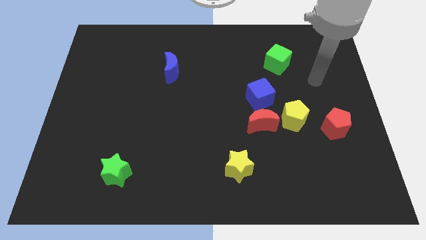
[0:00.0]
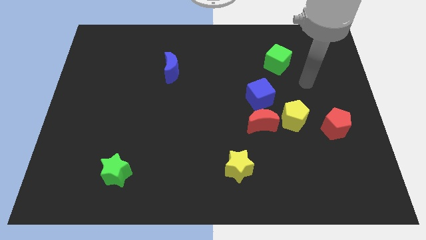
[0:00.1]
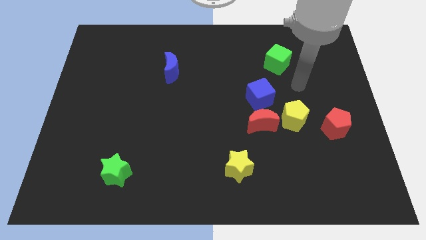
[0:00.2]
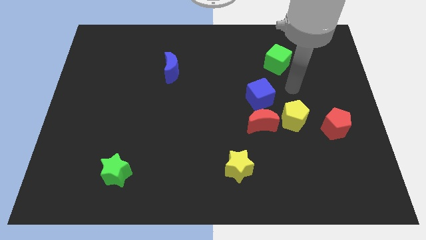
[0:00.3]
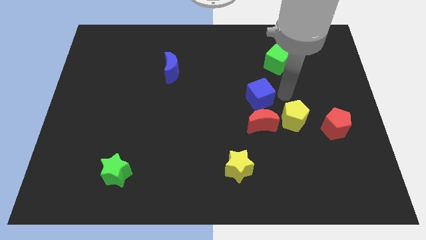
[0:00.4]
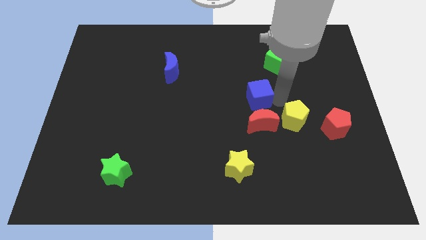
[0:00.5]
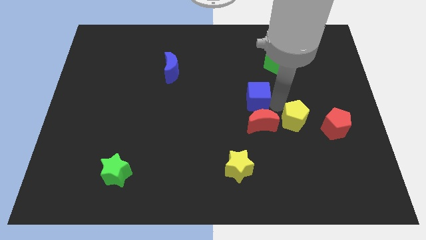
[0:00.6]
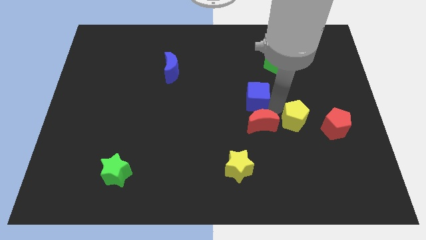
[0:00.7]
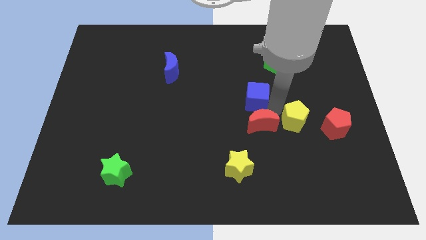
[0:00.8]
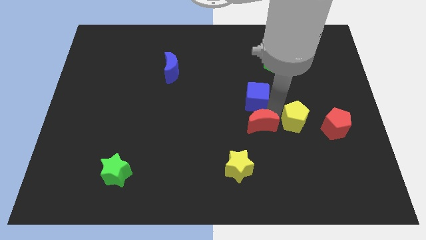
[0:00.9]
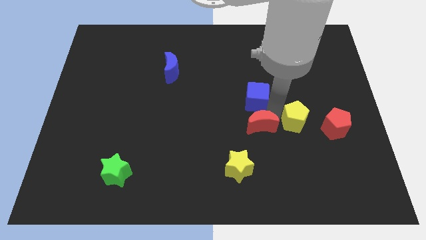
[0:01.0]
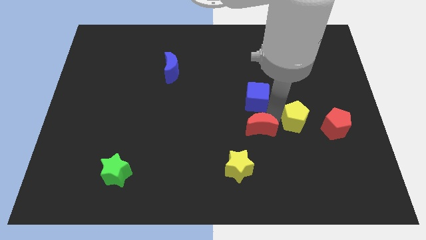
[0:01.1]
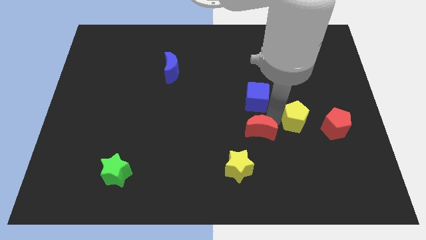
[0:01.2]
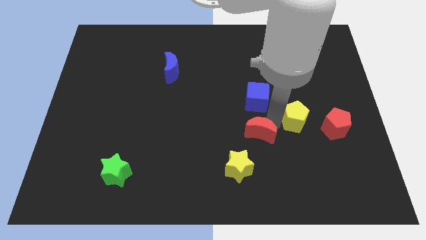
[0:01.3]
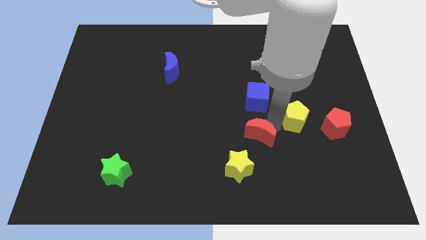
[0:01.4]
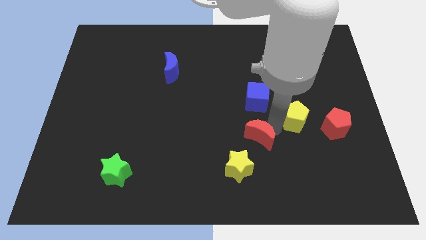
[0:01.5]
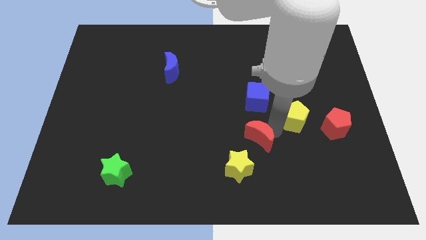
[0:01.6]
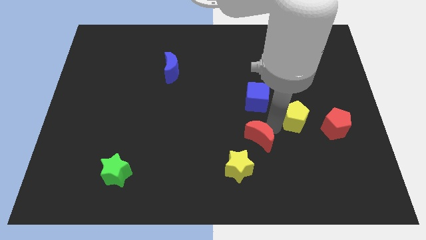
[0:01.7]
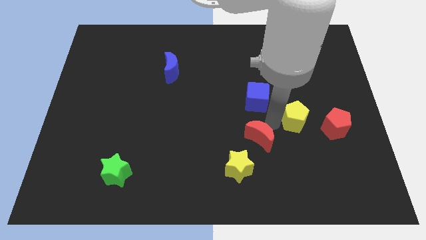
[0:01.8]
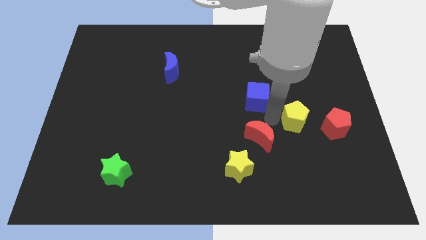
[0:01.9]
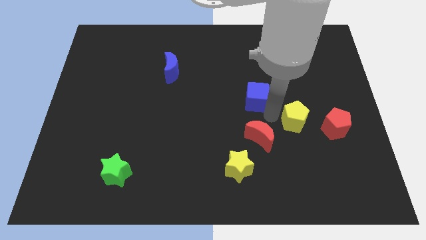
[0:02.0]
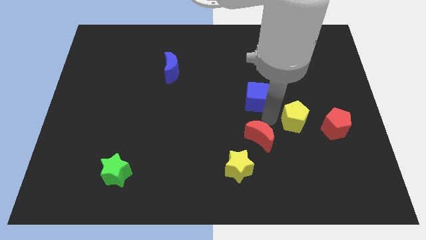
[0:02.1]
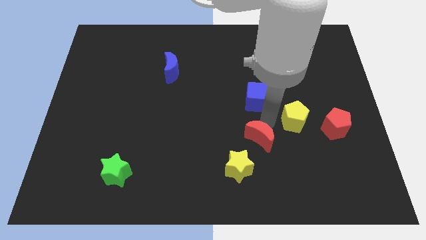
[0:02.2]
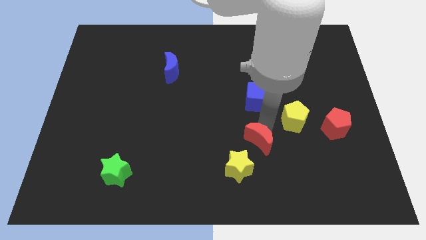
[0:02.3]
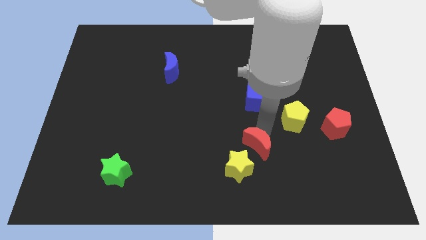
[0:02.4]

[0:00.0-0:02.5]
move the red moon away from the yellow pentagon and blue cube

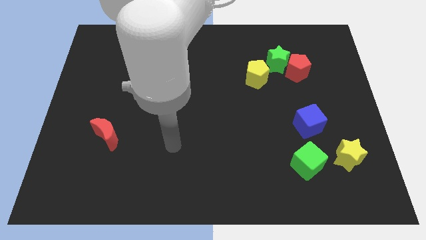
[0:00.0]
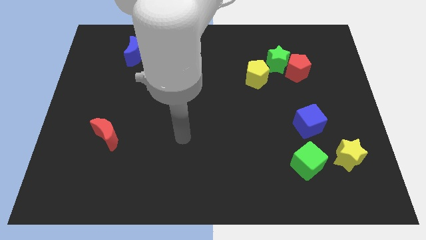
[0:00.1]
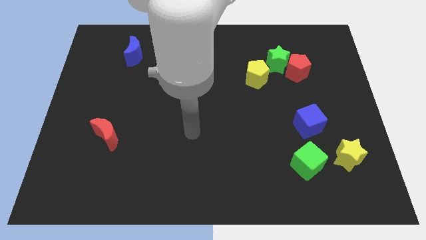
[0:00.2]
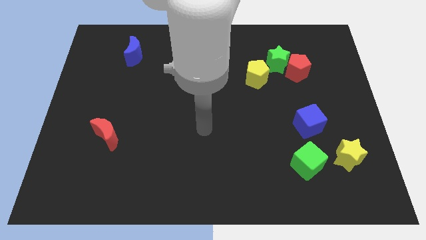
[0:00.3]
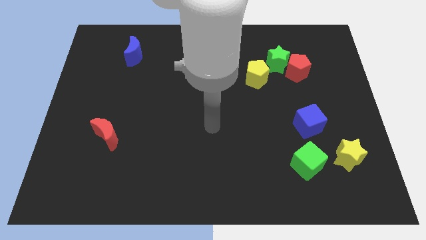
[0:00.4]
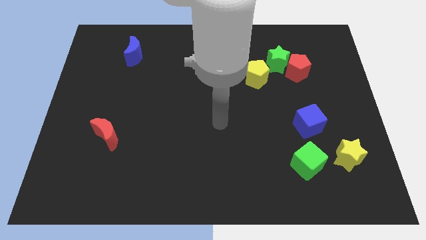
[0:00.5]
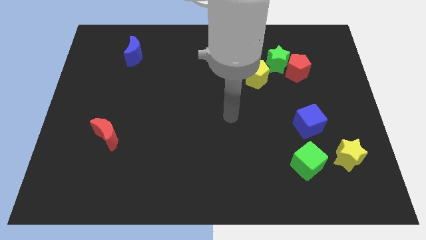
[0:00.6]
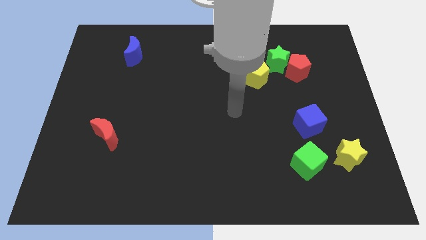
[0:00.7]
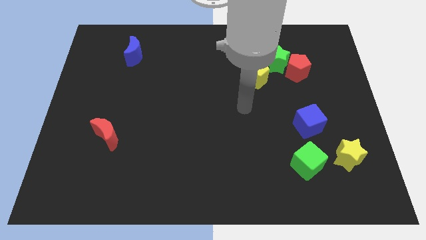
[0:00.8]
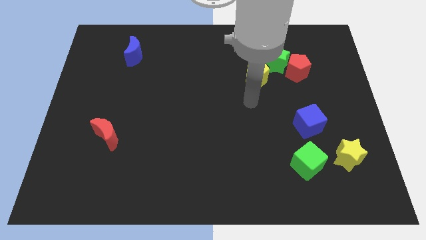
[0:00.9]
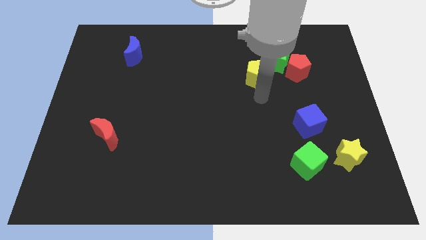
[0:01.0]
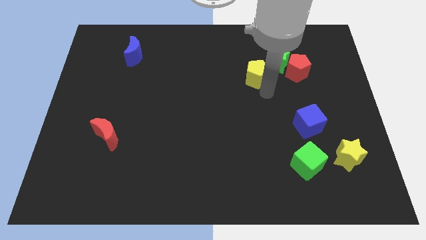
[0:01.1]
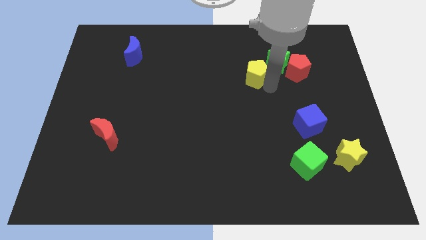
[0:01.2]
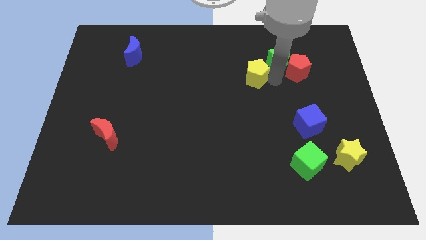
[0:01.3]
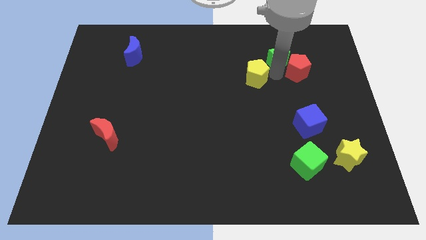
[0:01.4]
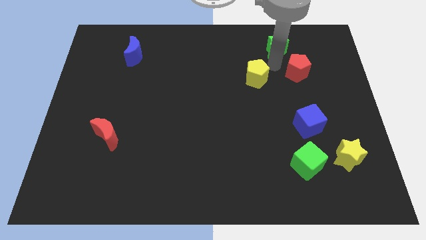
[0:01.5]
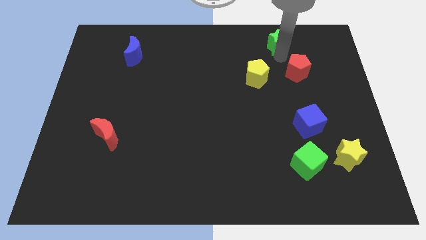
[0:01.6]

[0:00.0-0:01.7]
move the red pentagon away from the green star

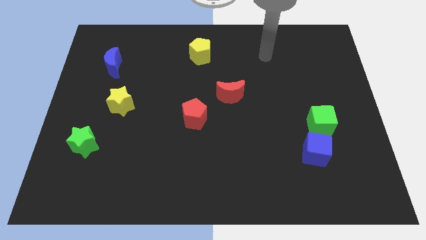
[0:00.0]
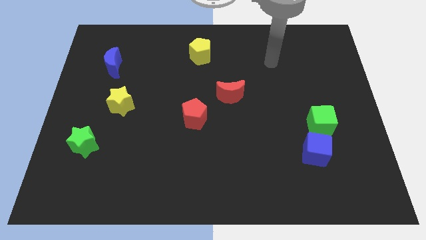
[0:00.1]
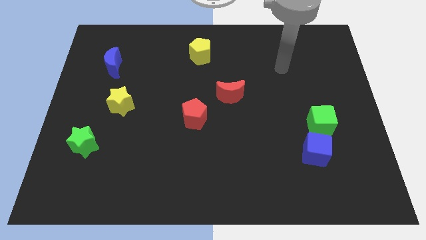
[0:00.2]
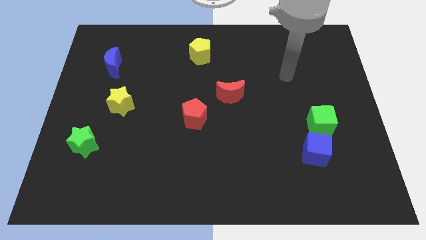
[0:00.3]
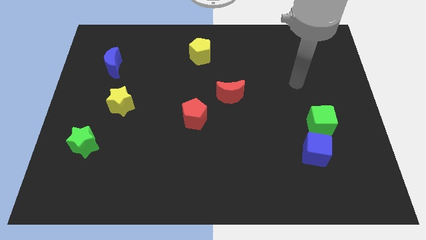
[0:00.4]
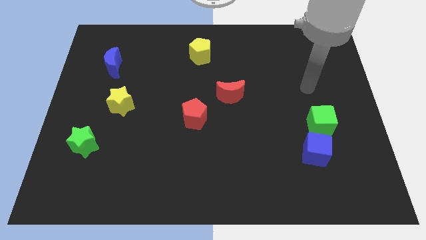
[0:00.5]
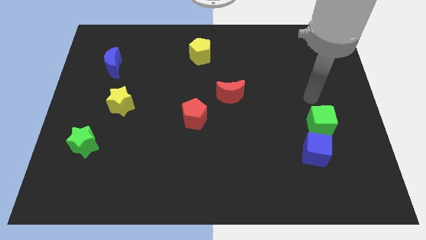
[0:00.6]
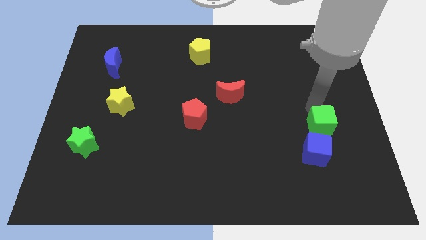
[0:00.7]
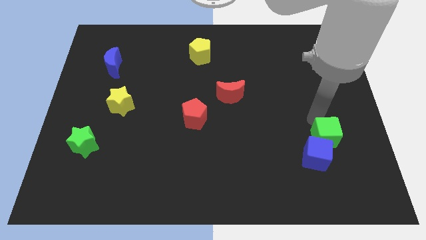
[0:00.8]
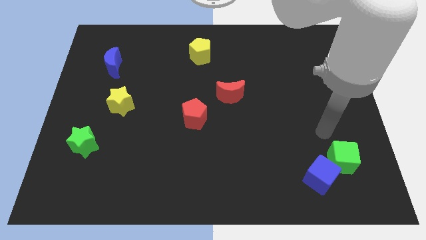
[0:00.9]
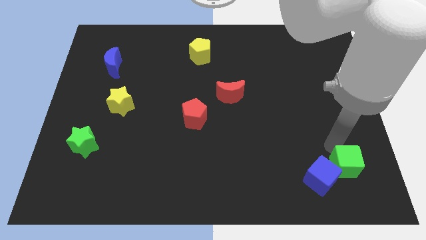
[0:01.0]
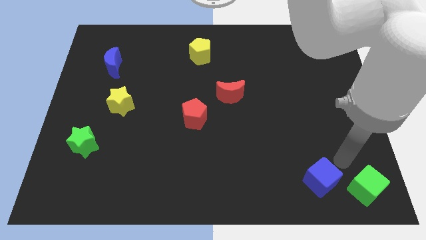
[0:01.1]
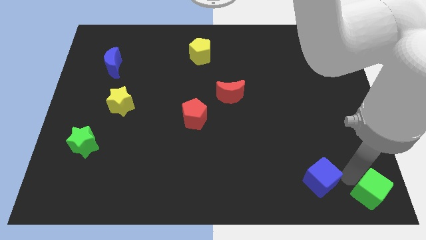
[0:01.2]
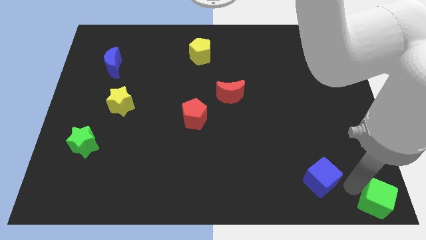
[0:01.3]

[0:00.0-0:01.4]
move the blue cube away from the green cube

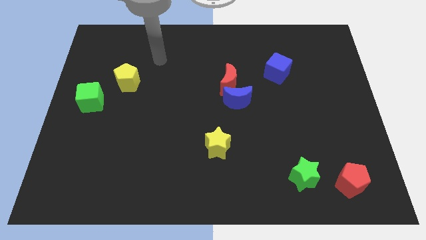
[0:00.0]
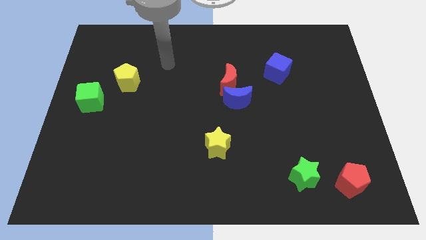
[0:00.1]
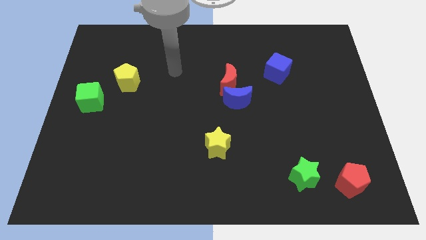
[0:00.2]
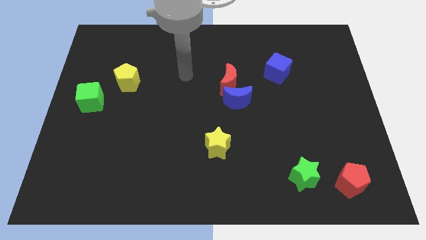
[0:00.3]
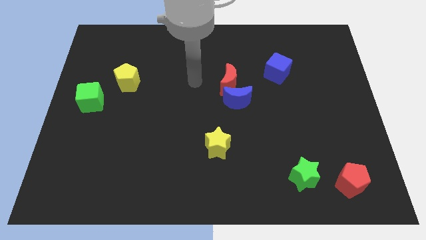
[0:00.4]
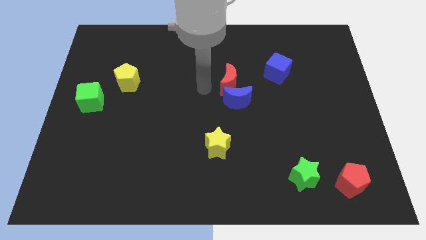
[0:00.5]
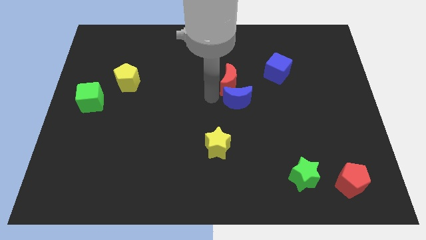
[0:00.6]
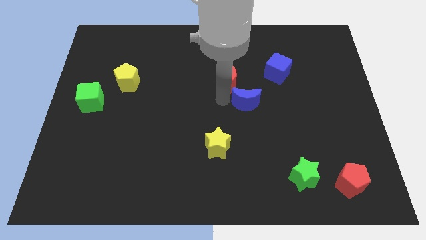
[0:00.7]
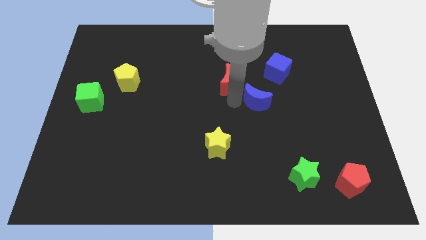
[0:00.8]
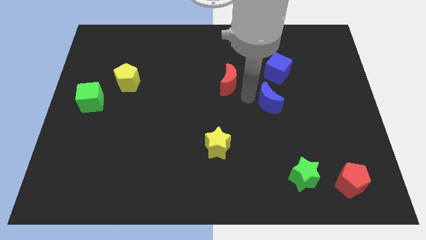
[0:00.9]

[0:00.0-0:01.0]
separate the red moon from the blue moon

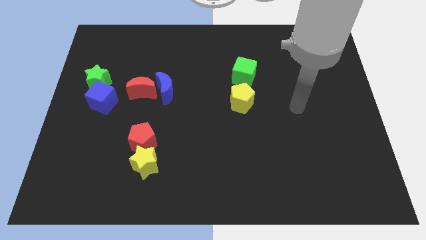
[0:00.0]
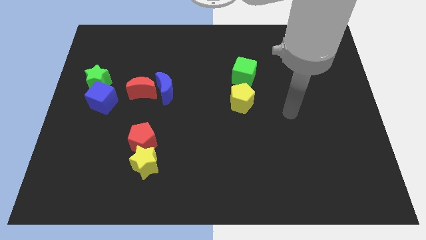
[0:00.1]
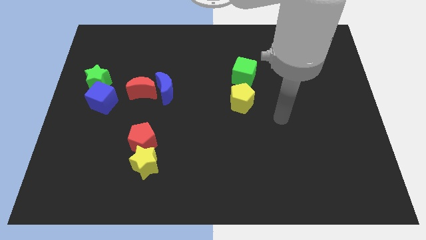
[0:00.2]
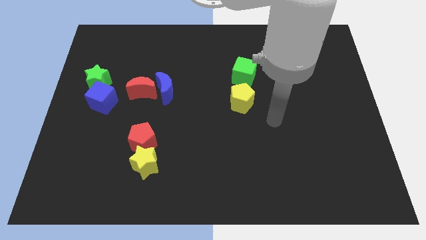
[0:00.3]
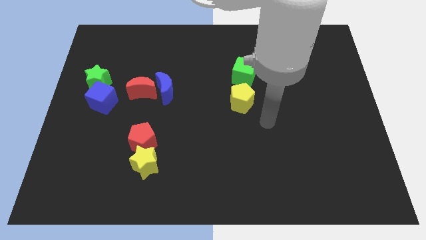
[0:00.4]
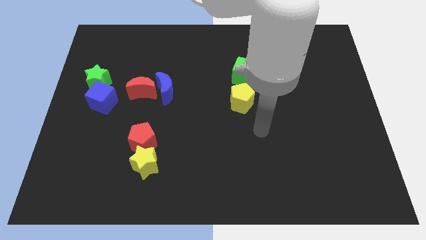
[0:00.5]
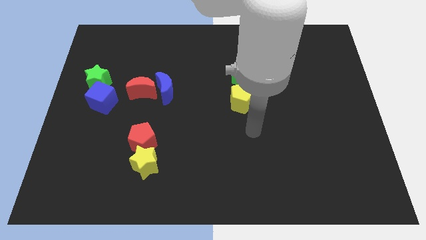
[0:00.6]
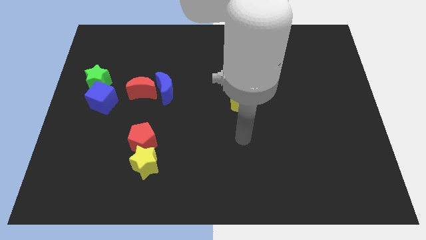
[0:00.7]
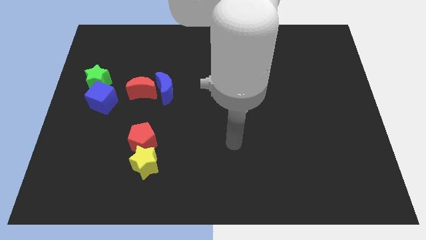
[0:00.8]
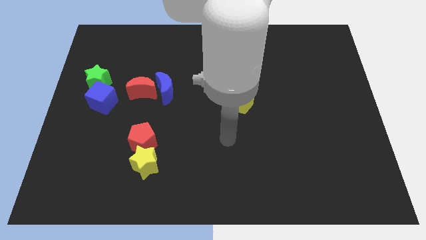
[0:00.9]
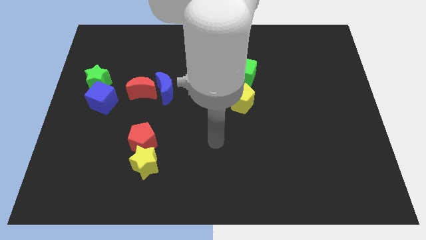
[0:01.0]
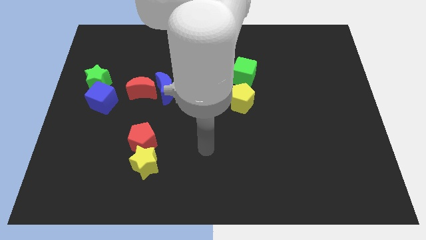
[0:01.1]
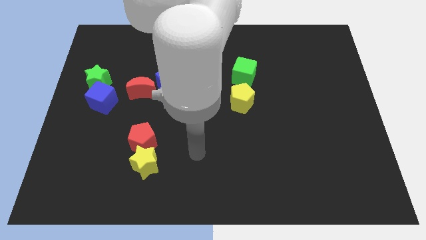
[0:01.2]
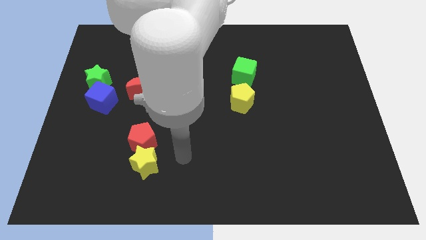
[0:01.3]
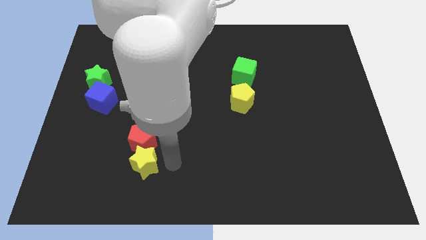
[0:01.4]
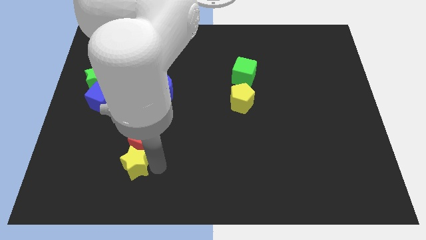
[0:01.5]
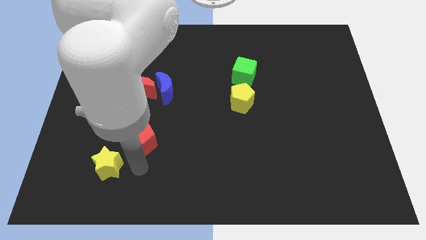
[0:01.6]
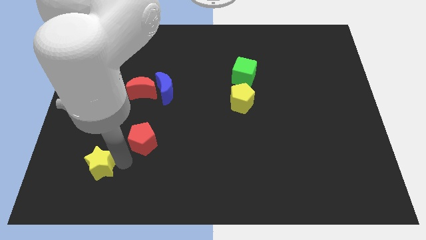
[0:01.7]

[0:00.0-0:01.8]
separate the red pentagon from the yellow star

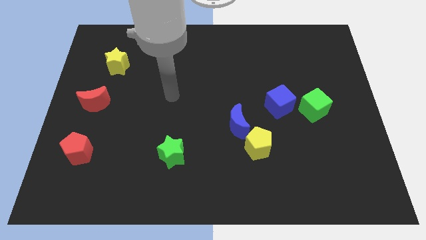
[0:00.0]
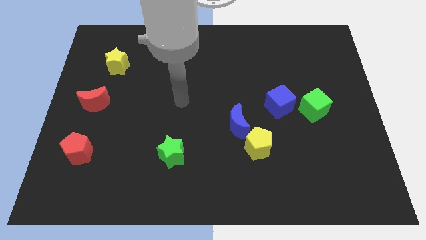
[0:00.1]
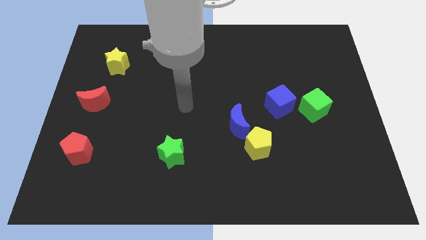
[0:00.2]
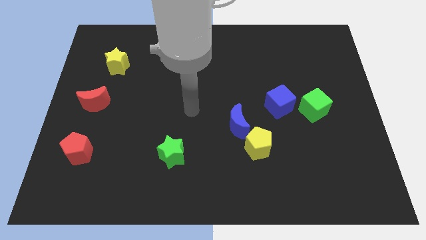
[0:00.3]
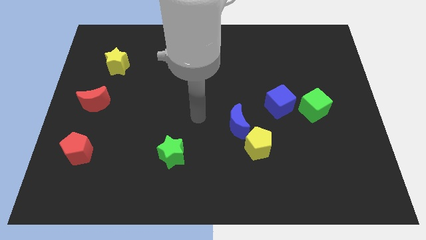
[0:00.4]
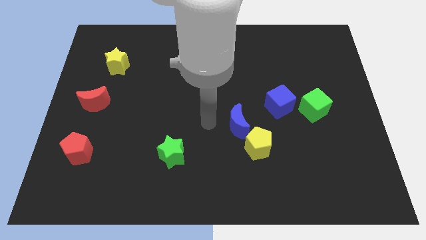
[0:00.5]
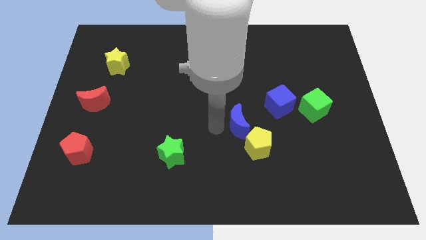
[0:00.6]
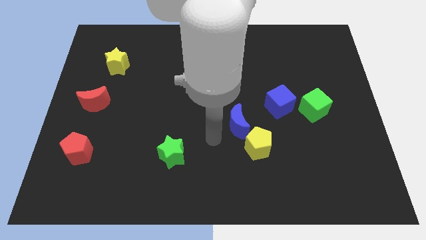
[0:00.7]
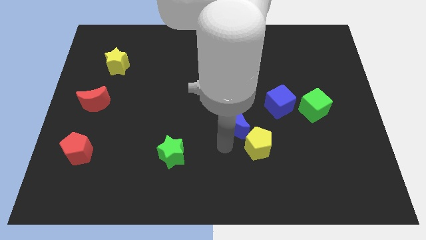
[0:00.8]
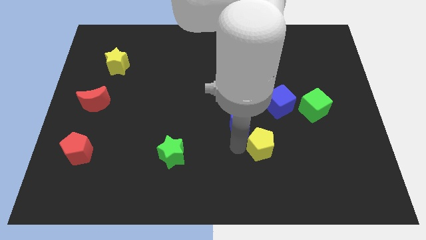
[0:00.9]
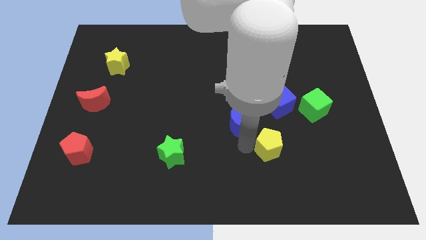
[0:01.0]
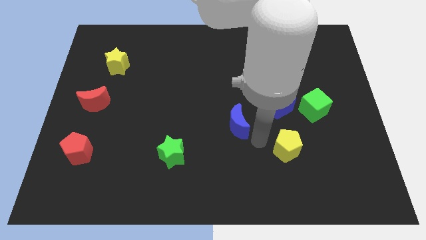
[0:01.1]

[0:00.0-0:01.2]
separate the blue moon from the yellow pentagon
